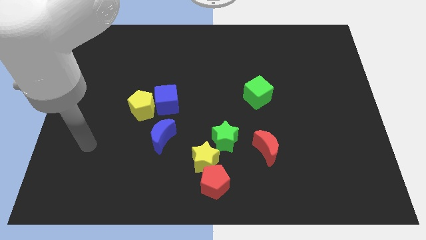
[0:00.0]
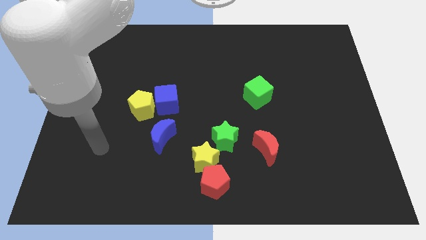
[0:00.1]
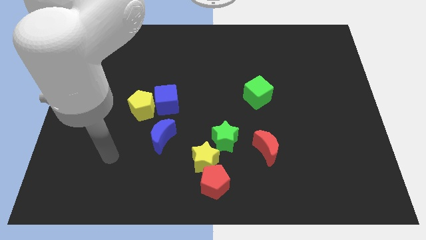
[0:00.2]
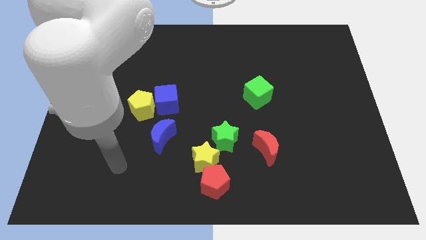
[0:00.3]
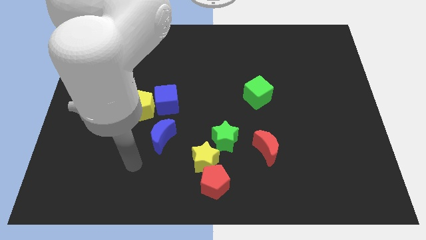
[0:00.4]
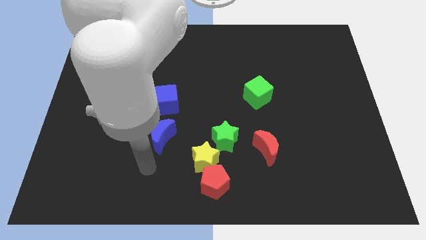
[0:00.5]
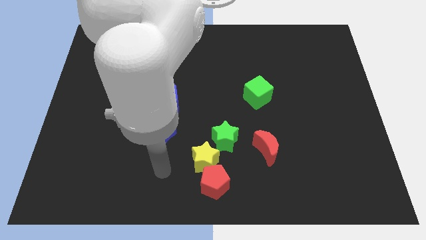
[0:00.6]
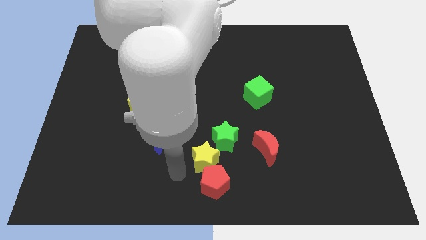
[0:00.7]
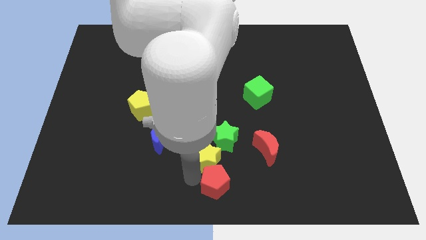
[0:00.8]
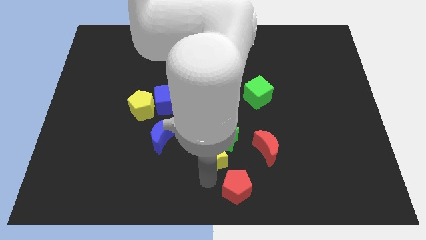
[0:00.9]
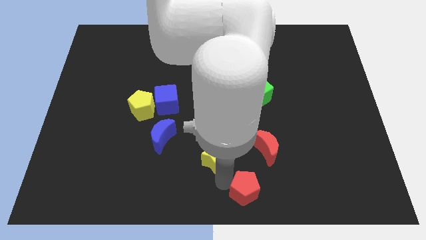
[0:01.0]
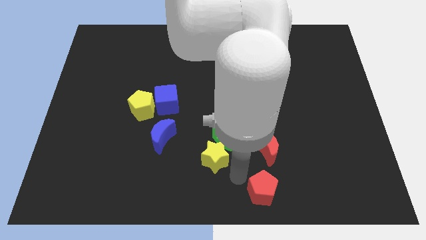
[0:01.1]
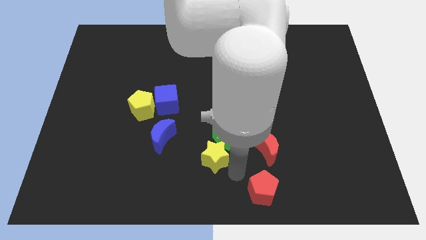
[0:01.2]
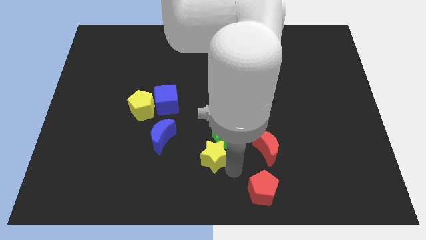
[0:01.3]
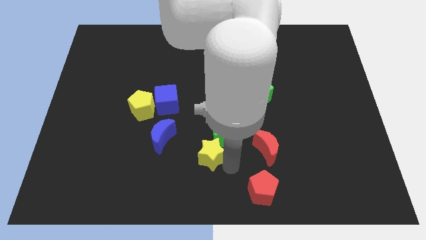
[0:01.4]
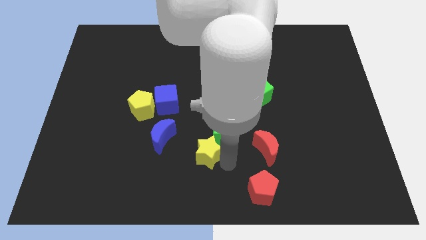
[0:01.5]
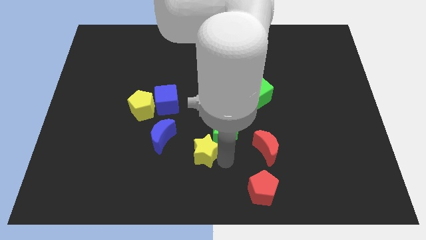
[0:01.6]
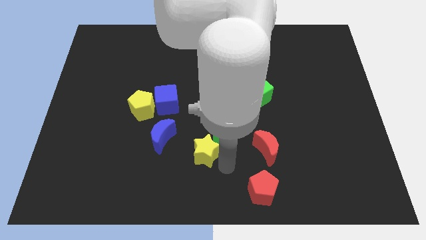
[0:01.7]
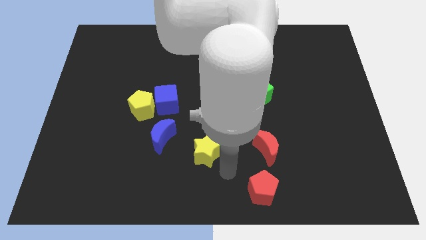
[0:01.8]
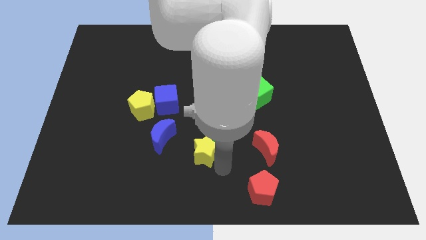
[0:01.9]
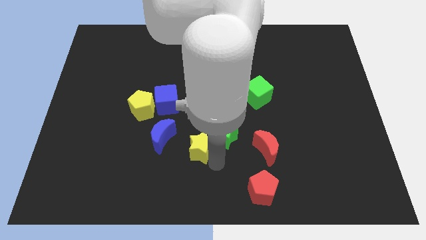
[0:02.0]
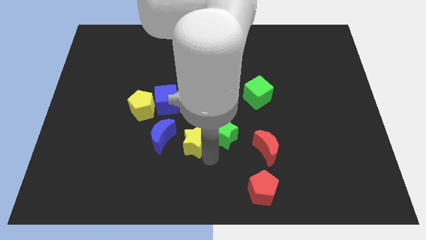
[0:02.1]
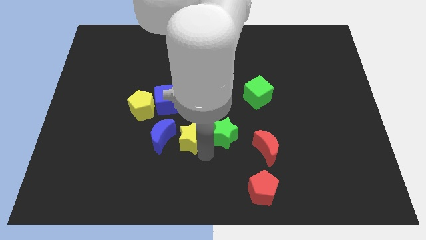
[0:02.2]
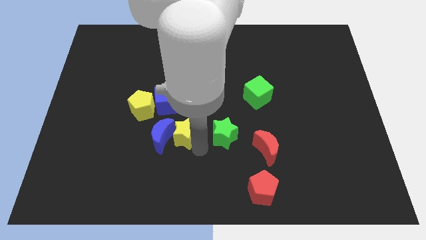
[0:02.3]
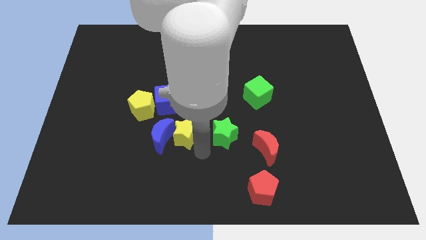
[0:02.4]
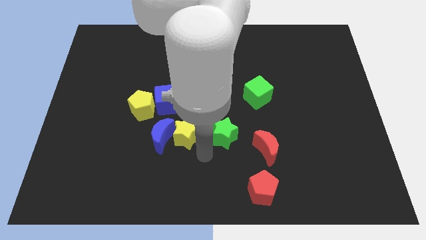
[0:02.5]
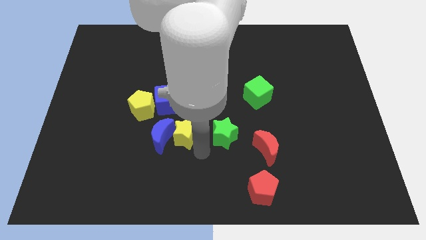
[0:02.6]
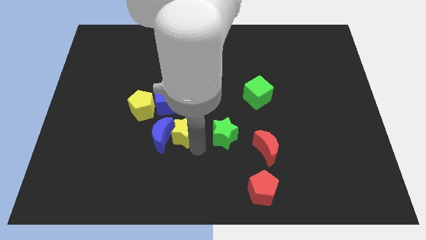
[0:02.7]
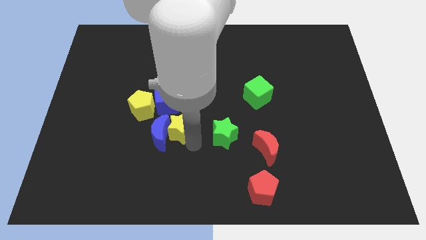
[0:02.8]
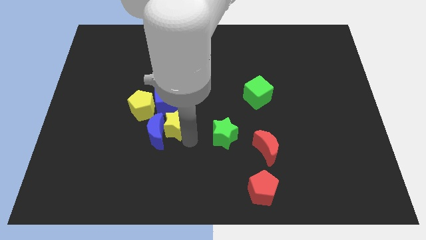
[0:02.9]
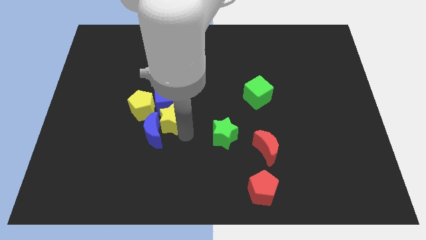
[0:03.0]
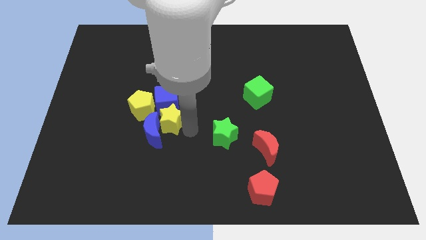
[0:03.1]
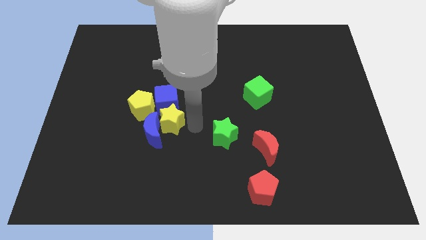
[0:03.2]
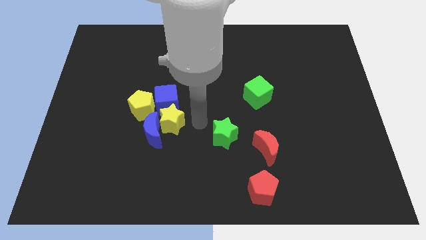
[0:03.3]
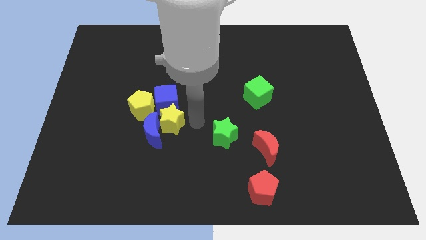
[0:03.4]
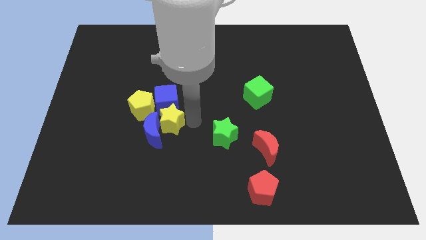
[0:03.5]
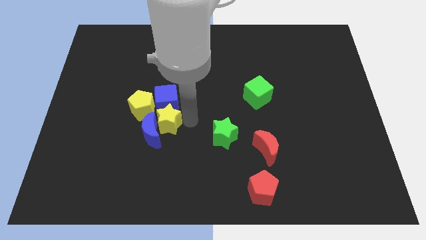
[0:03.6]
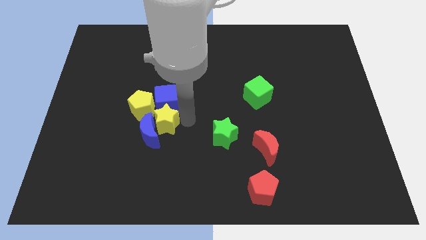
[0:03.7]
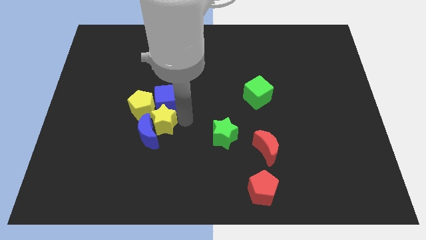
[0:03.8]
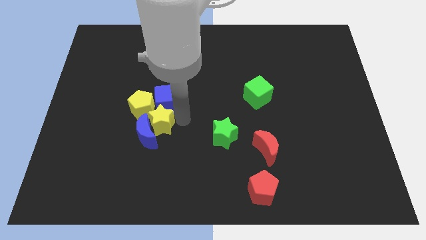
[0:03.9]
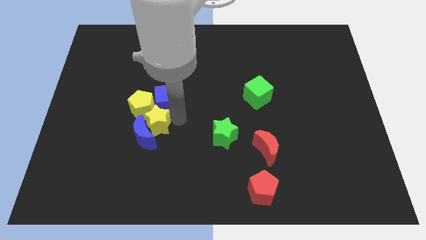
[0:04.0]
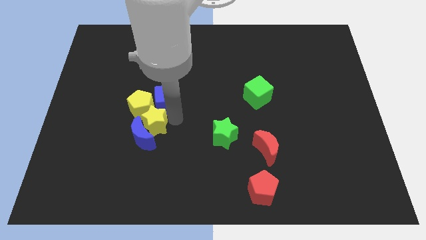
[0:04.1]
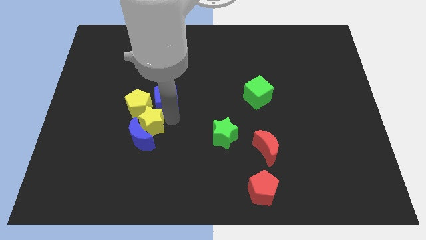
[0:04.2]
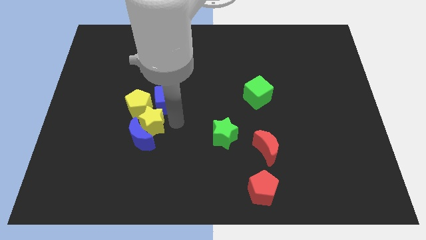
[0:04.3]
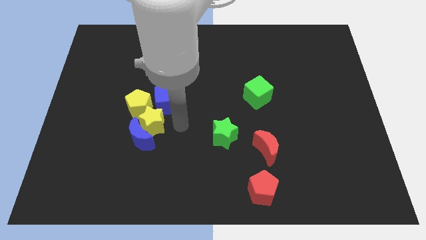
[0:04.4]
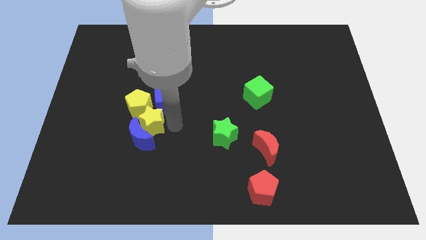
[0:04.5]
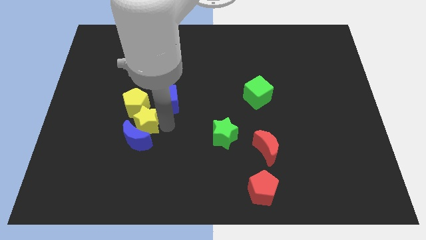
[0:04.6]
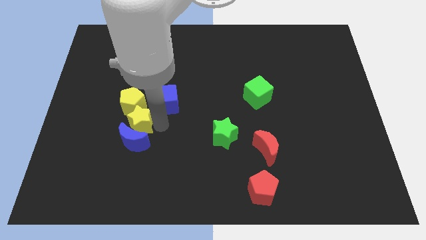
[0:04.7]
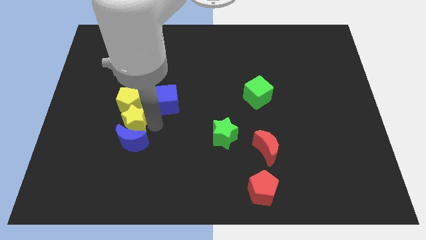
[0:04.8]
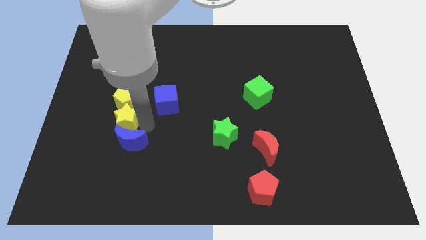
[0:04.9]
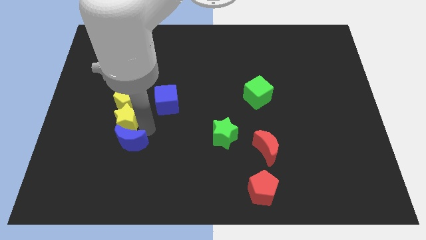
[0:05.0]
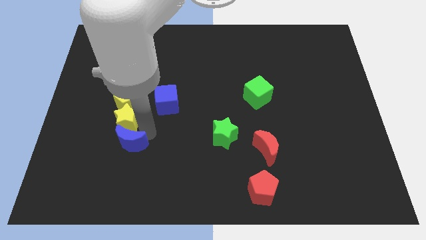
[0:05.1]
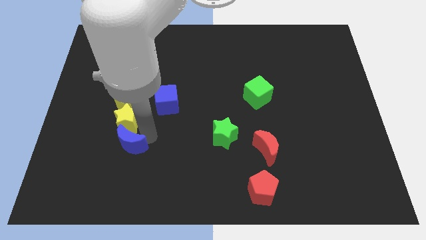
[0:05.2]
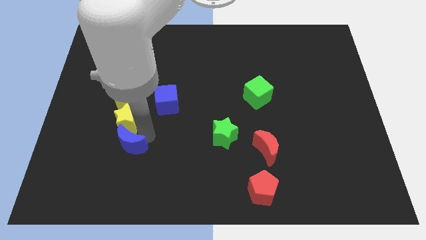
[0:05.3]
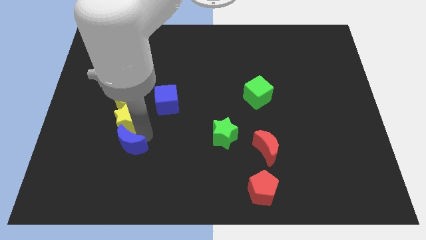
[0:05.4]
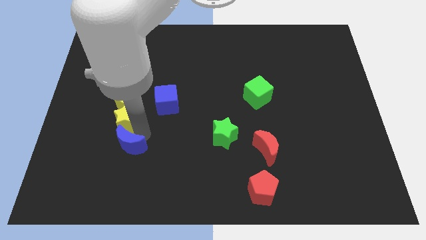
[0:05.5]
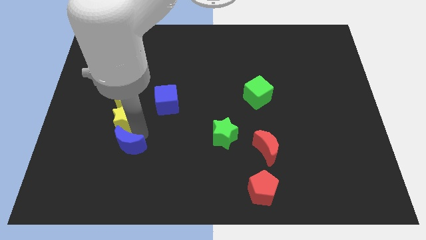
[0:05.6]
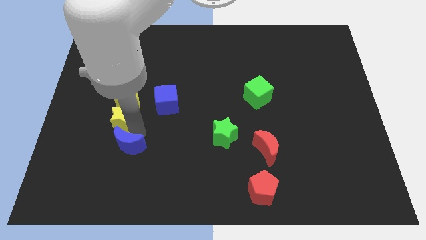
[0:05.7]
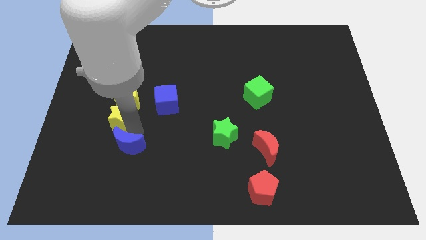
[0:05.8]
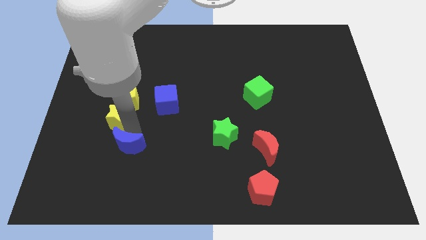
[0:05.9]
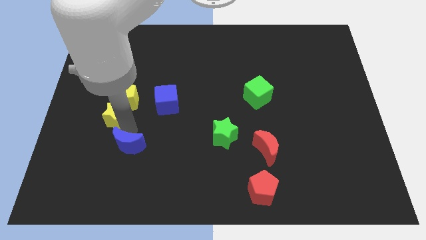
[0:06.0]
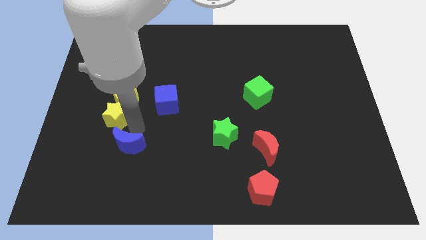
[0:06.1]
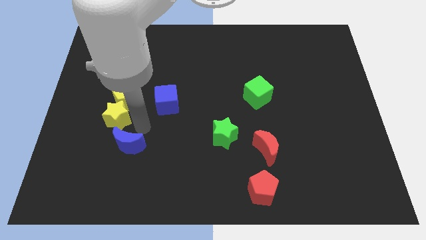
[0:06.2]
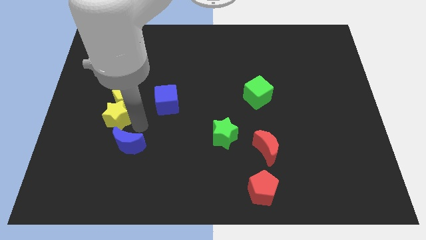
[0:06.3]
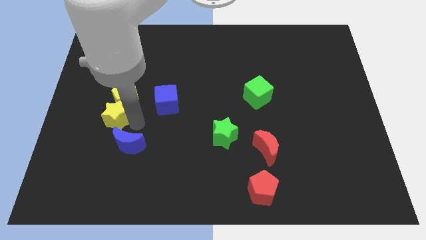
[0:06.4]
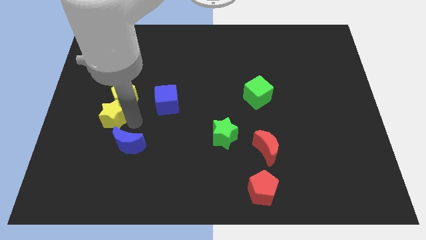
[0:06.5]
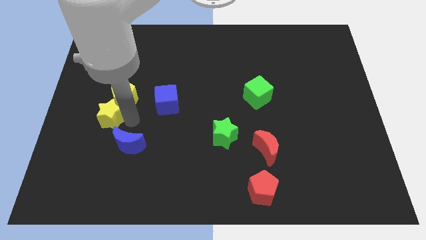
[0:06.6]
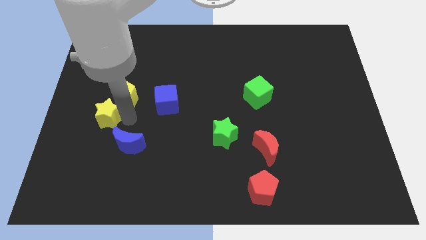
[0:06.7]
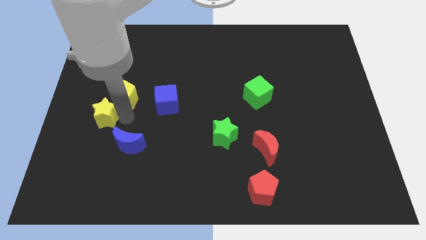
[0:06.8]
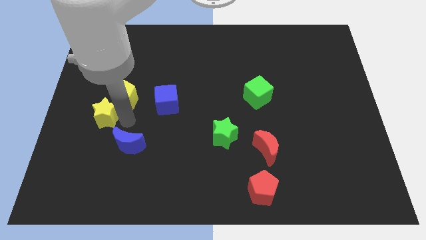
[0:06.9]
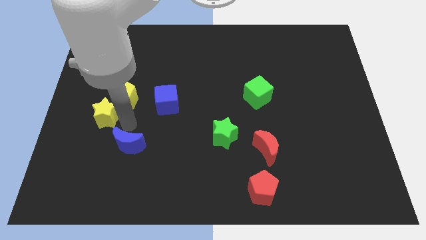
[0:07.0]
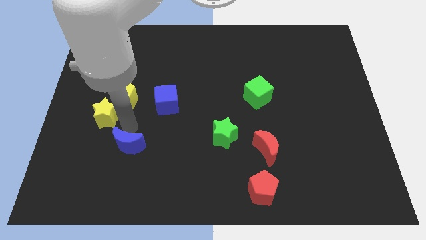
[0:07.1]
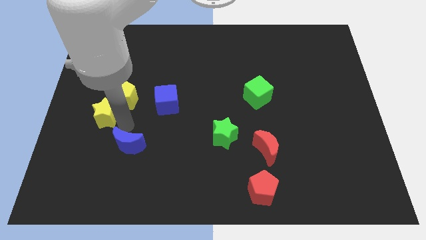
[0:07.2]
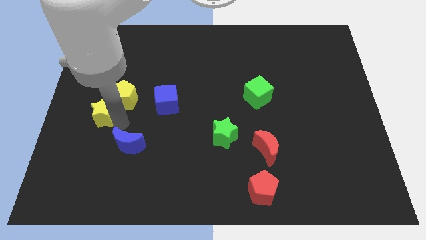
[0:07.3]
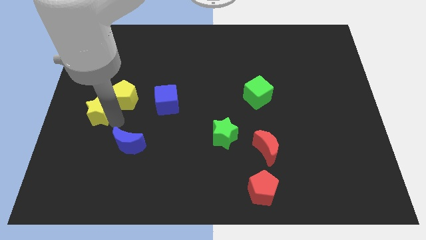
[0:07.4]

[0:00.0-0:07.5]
slide the yellow star to the left side of the board
